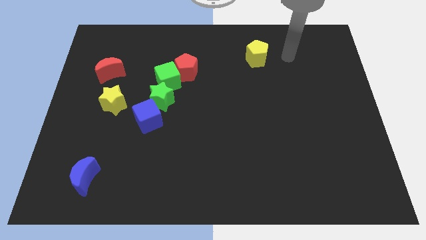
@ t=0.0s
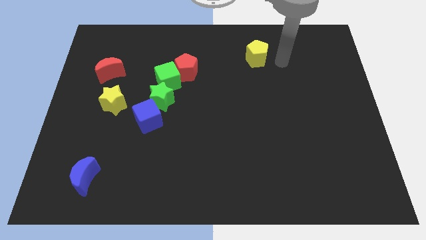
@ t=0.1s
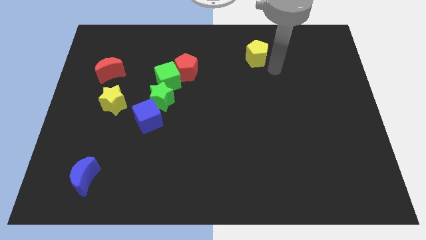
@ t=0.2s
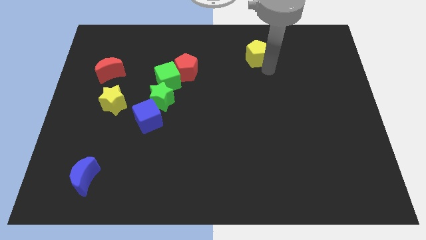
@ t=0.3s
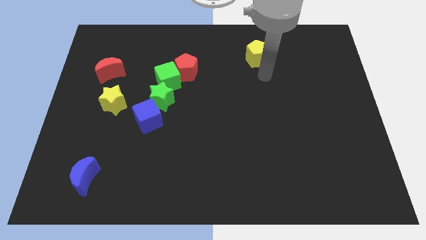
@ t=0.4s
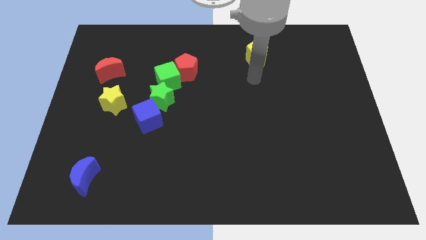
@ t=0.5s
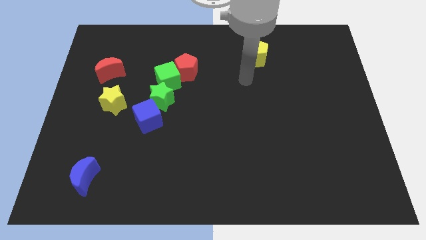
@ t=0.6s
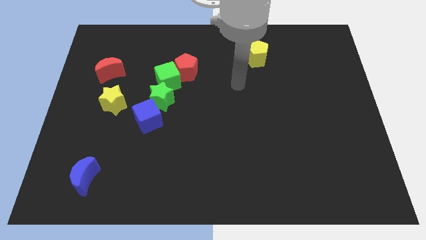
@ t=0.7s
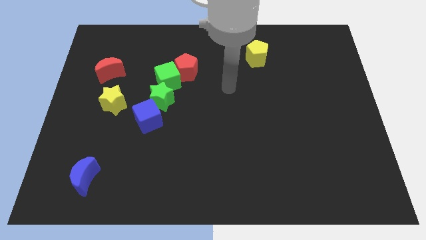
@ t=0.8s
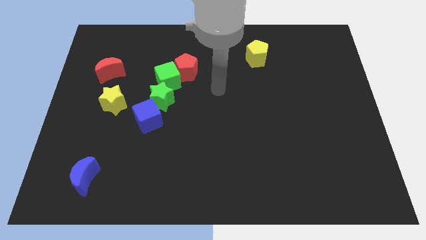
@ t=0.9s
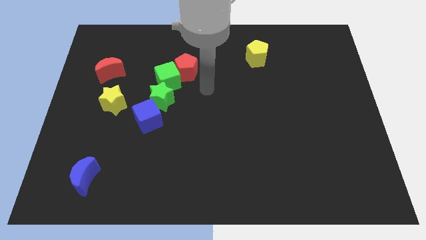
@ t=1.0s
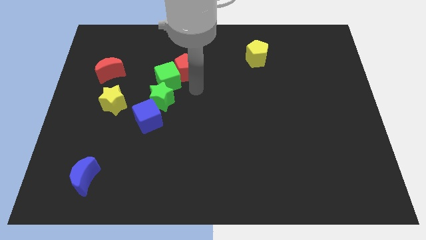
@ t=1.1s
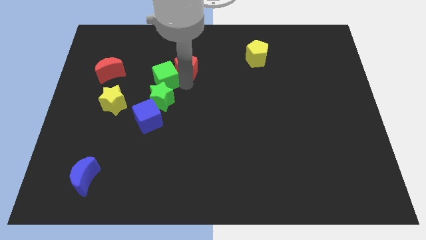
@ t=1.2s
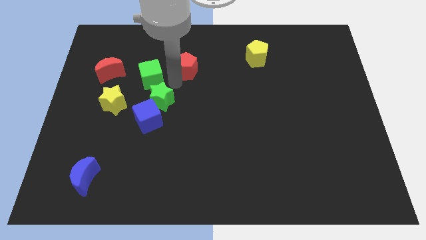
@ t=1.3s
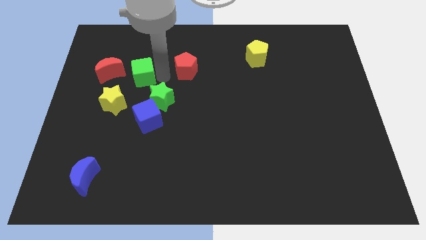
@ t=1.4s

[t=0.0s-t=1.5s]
pull the red pentagon apart from the green cube

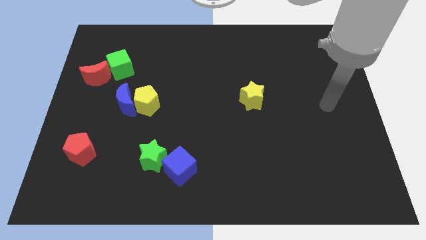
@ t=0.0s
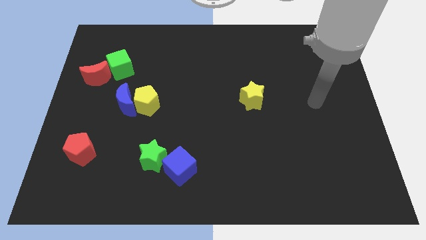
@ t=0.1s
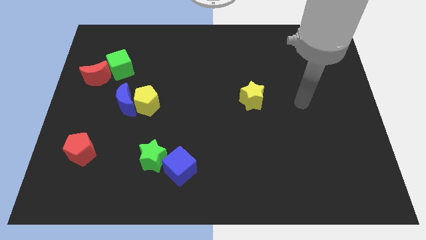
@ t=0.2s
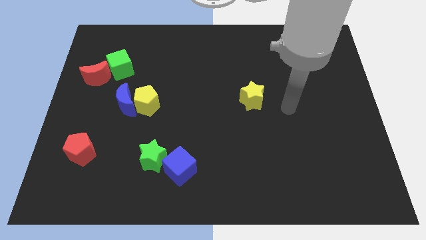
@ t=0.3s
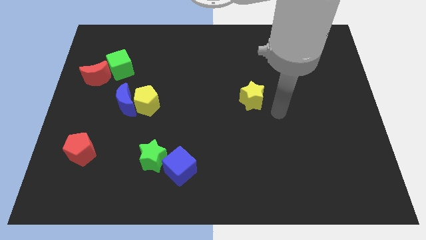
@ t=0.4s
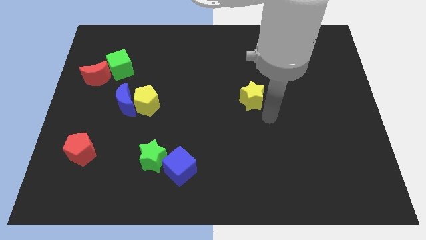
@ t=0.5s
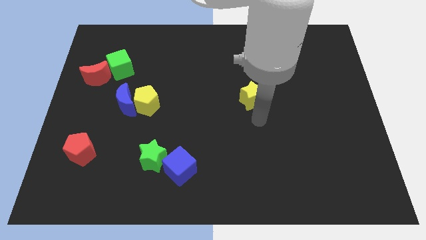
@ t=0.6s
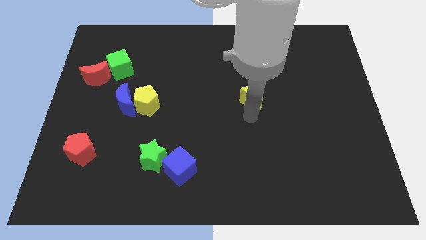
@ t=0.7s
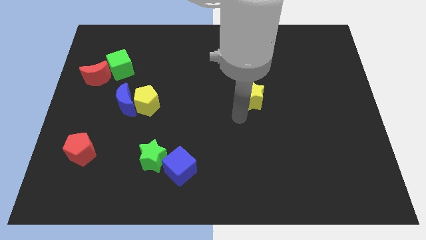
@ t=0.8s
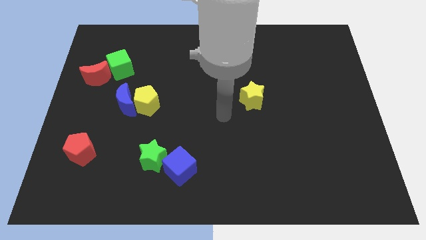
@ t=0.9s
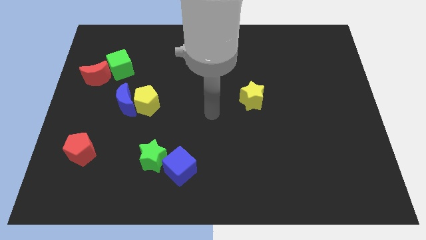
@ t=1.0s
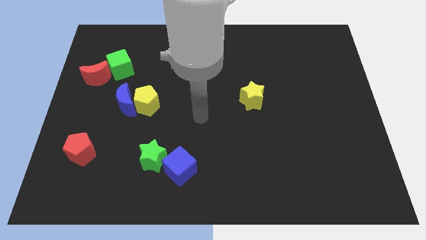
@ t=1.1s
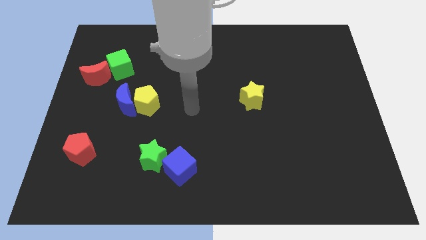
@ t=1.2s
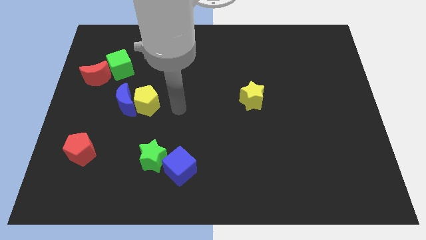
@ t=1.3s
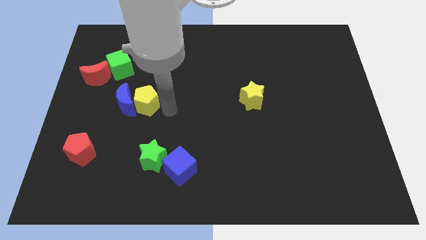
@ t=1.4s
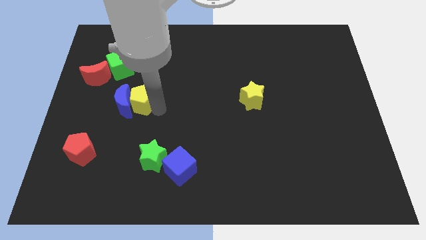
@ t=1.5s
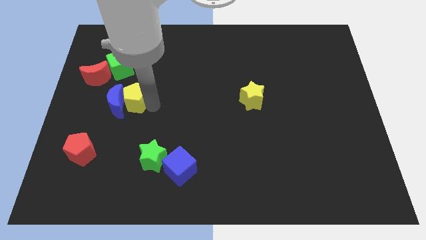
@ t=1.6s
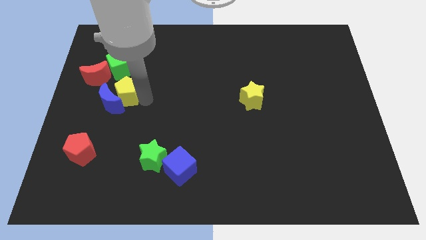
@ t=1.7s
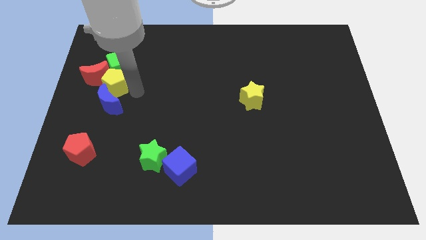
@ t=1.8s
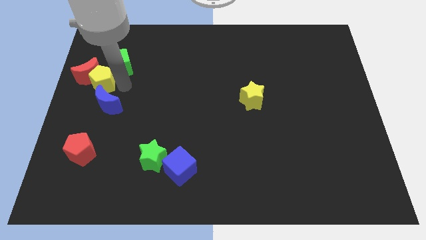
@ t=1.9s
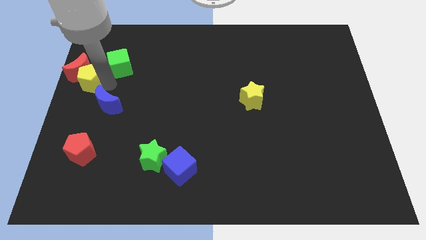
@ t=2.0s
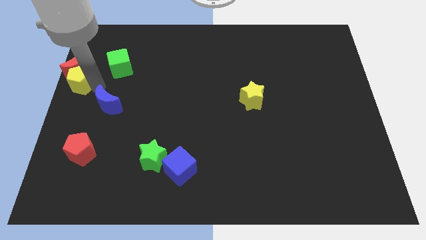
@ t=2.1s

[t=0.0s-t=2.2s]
pull the blue moon apart from the yellow pentagon

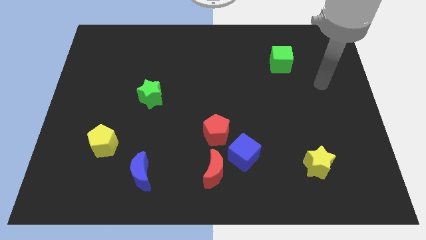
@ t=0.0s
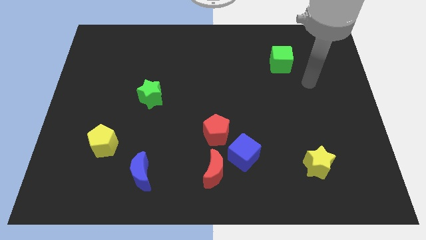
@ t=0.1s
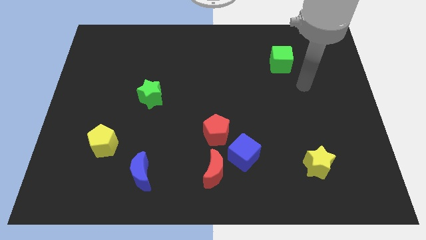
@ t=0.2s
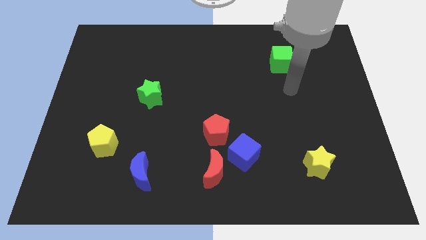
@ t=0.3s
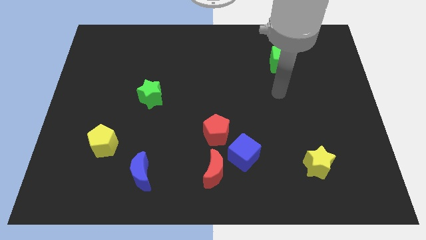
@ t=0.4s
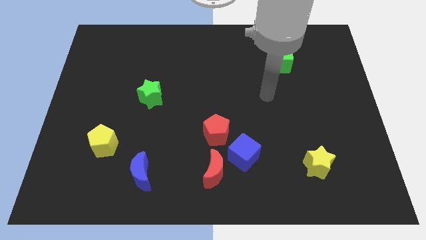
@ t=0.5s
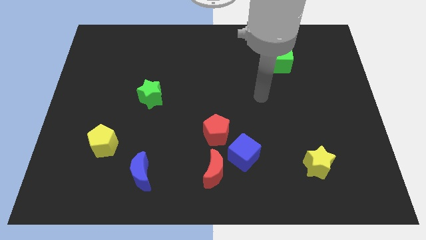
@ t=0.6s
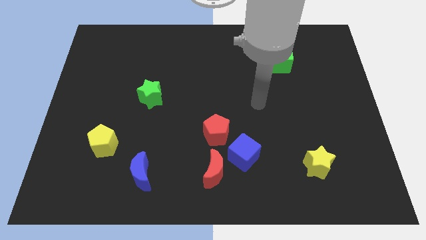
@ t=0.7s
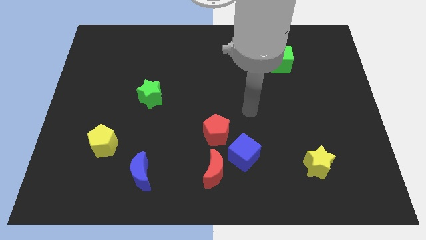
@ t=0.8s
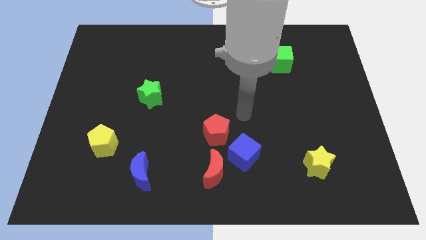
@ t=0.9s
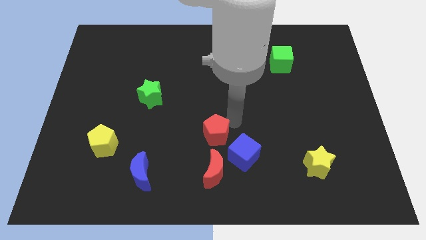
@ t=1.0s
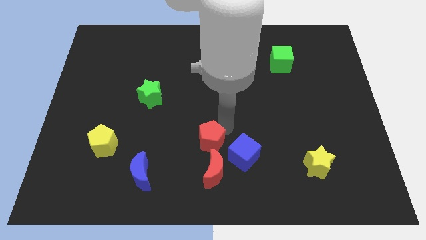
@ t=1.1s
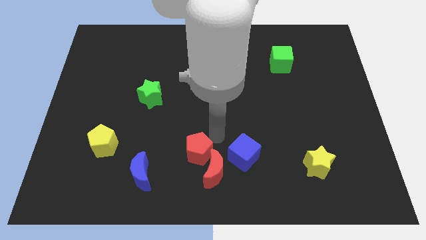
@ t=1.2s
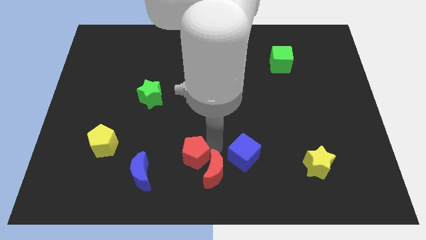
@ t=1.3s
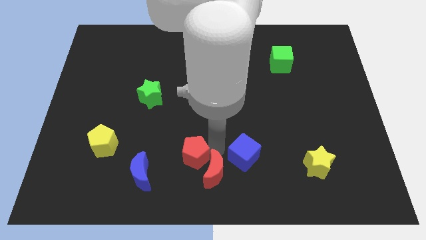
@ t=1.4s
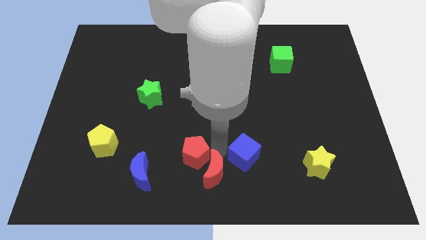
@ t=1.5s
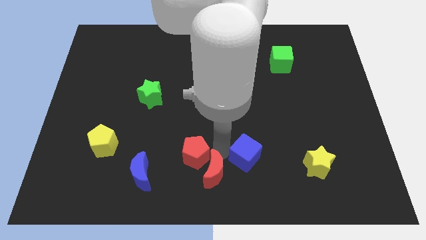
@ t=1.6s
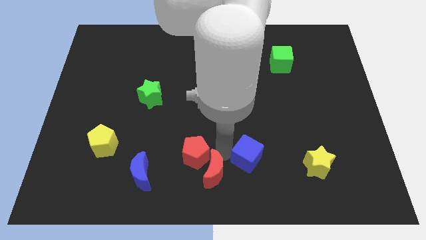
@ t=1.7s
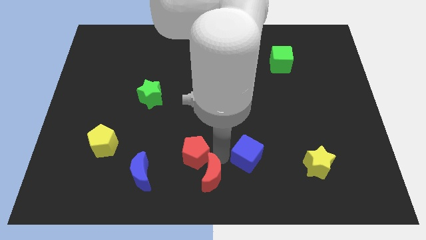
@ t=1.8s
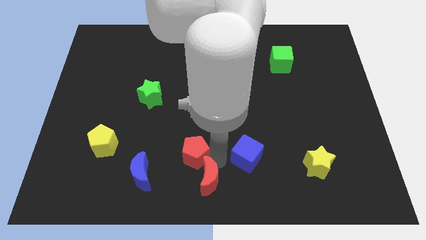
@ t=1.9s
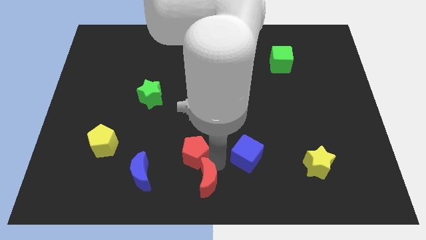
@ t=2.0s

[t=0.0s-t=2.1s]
separate the blue cube from the red moon and red pentagon

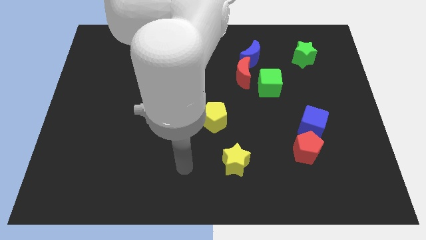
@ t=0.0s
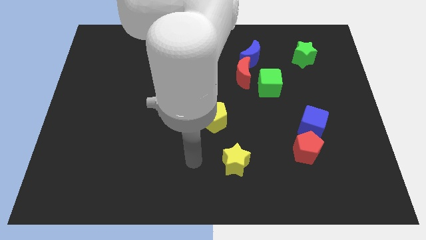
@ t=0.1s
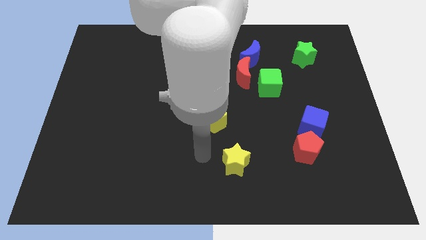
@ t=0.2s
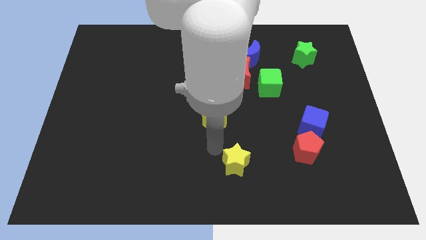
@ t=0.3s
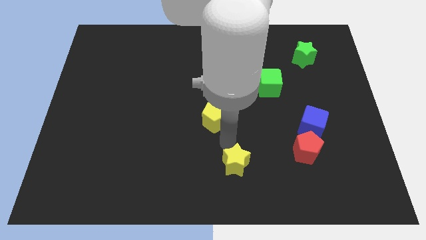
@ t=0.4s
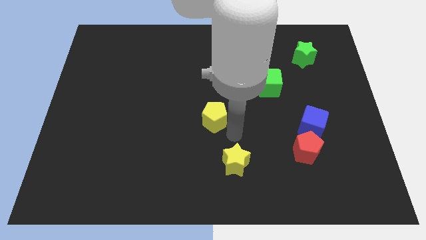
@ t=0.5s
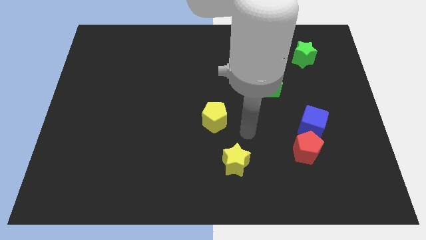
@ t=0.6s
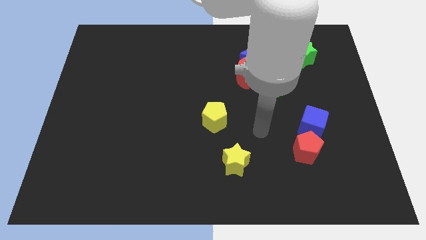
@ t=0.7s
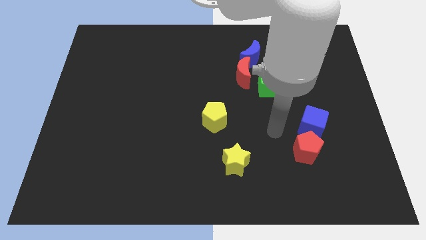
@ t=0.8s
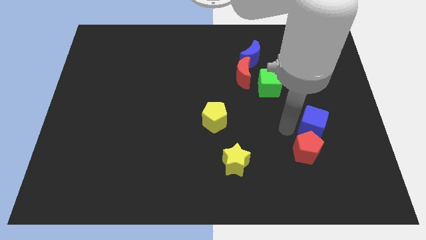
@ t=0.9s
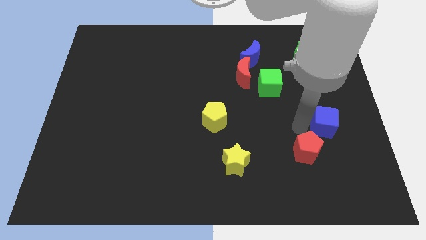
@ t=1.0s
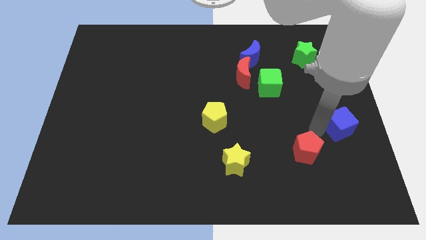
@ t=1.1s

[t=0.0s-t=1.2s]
pull the red pentagon apart from the blue cube

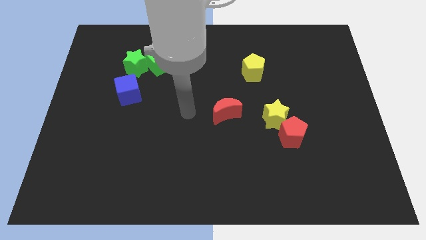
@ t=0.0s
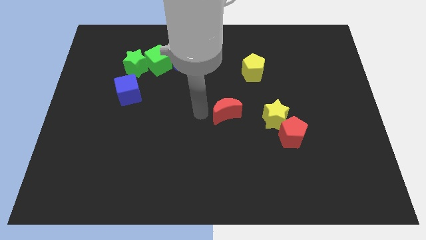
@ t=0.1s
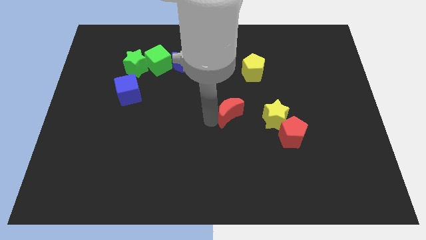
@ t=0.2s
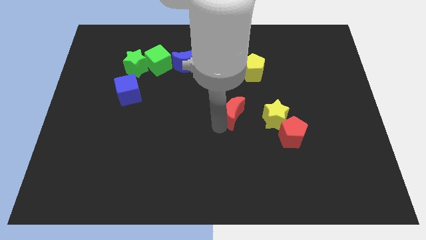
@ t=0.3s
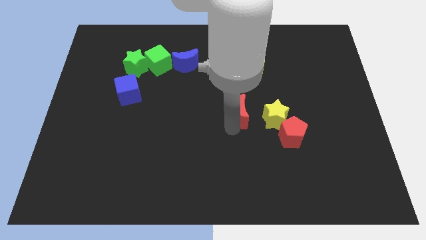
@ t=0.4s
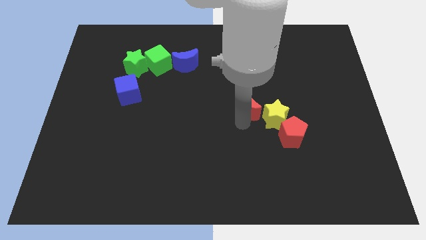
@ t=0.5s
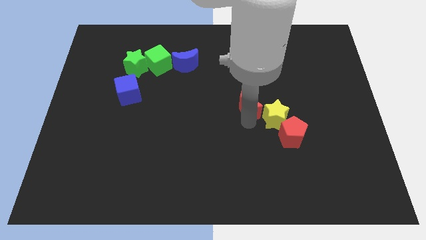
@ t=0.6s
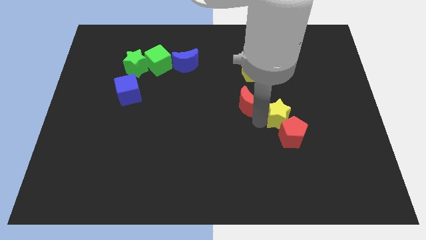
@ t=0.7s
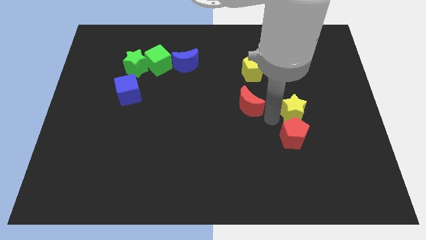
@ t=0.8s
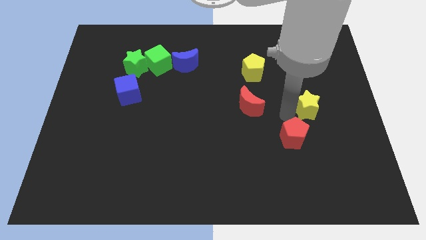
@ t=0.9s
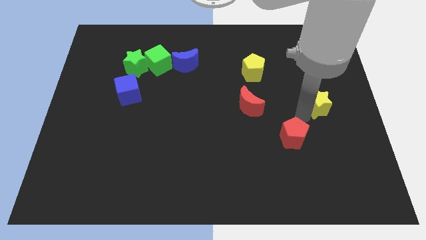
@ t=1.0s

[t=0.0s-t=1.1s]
separate the red pentagon from the yellow star

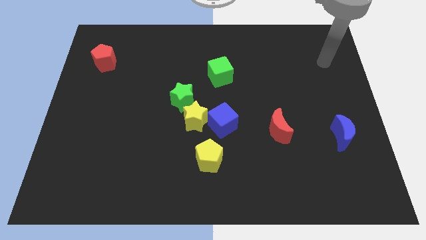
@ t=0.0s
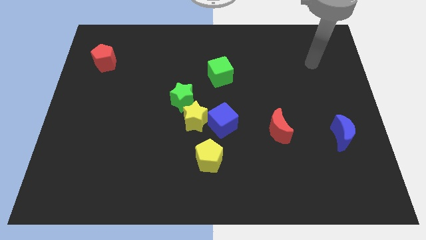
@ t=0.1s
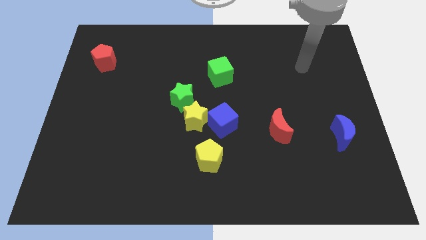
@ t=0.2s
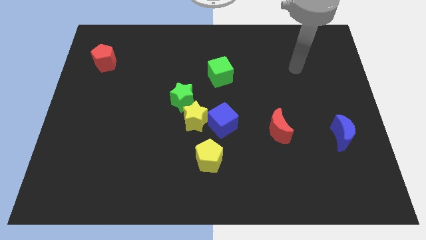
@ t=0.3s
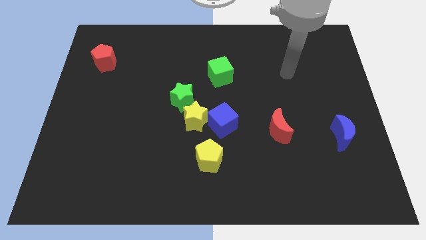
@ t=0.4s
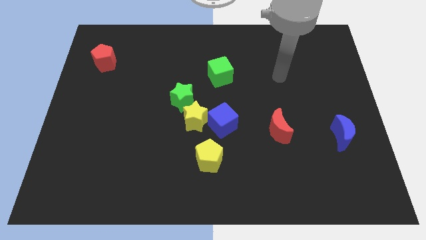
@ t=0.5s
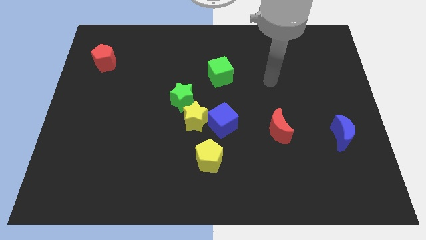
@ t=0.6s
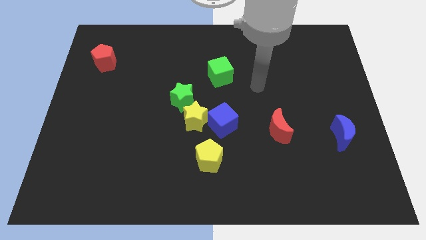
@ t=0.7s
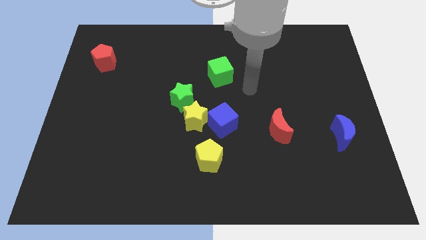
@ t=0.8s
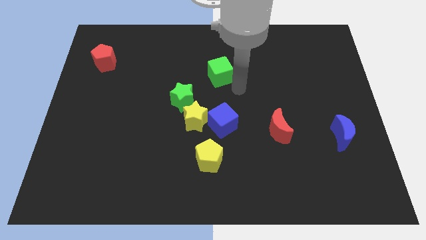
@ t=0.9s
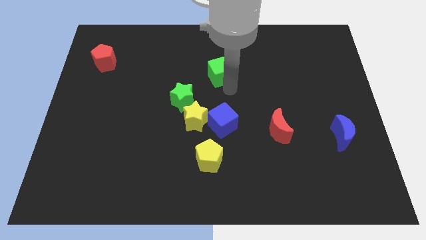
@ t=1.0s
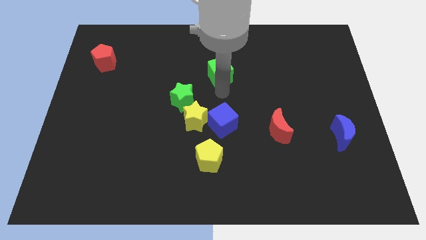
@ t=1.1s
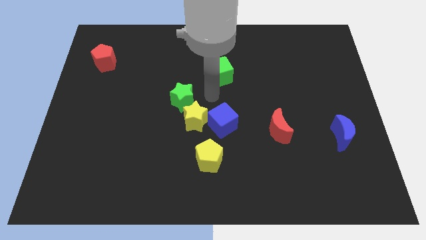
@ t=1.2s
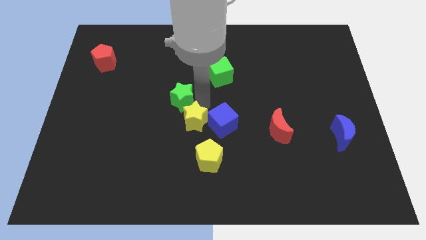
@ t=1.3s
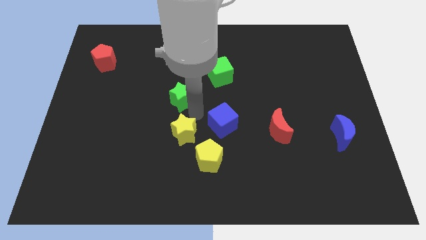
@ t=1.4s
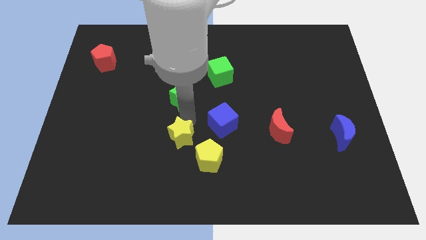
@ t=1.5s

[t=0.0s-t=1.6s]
move the green star away from the yellow star
